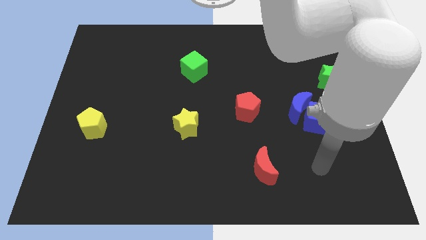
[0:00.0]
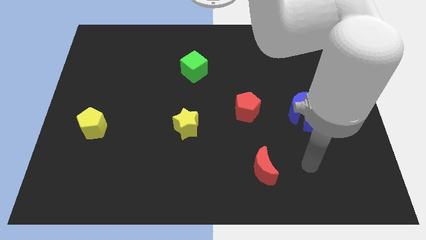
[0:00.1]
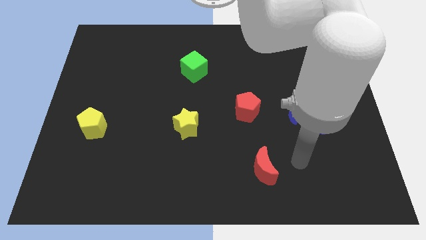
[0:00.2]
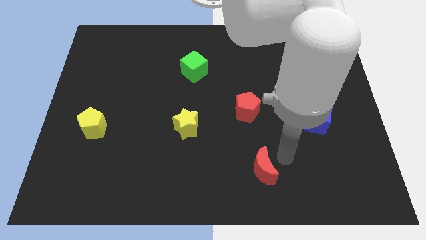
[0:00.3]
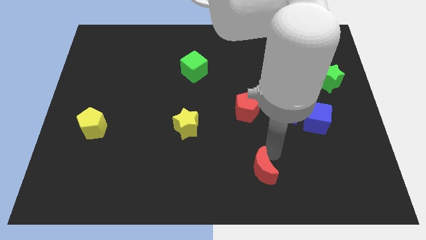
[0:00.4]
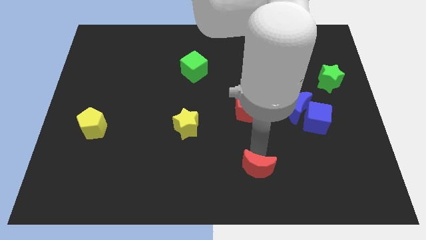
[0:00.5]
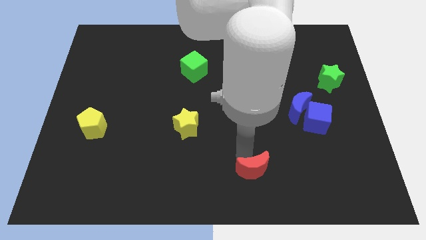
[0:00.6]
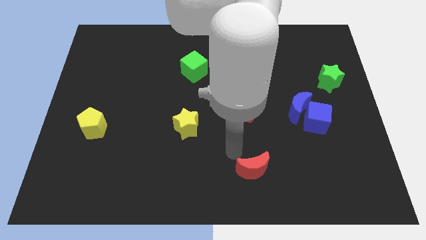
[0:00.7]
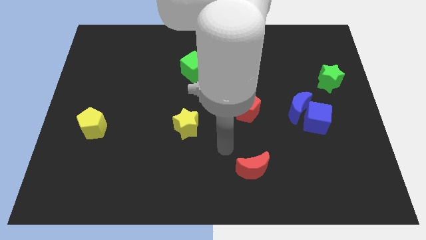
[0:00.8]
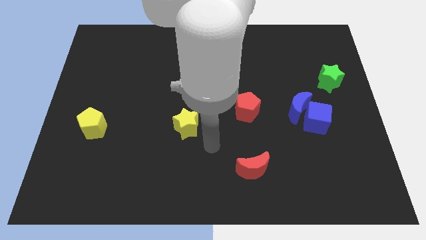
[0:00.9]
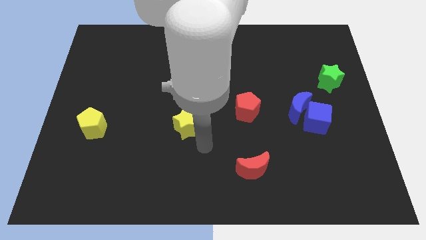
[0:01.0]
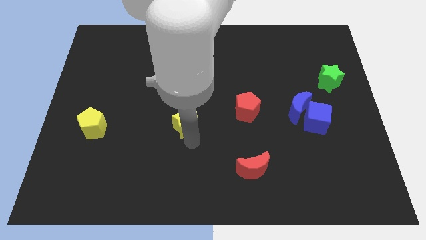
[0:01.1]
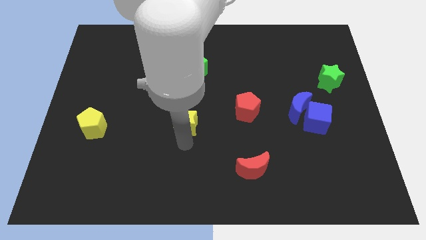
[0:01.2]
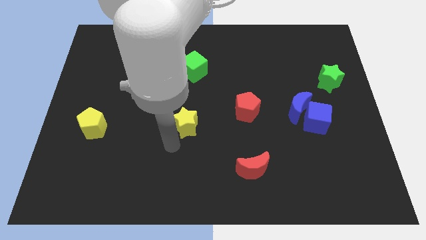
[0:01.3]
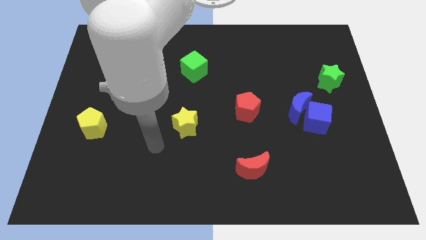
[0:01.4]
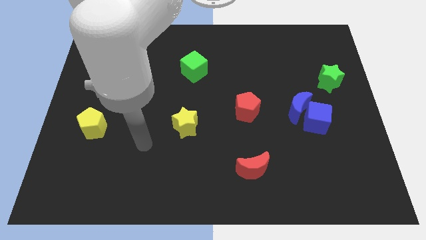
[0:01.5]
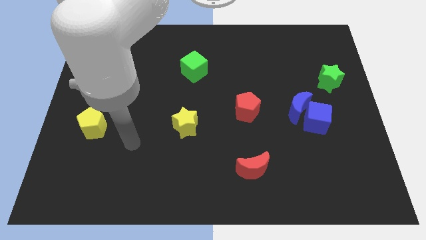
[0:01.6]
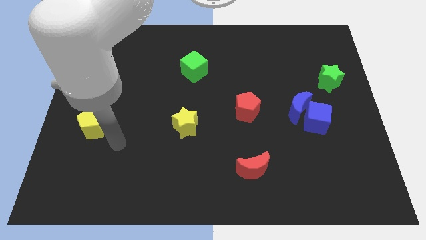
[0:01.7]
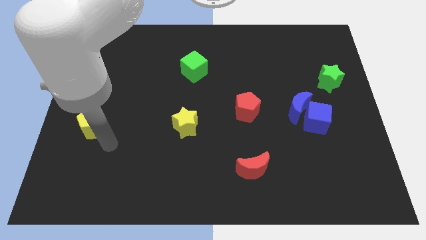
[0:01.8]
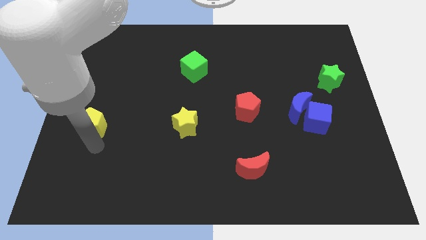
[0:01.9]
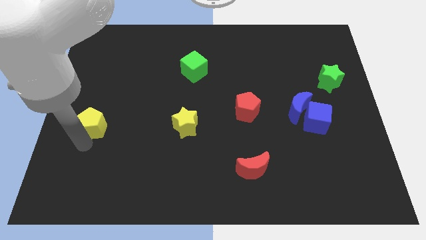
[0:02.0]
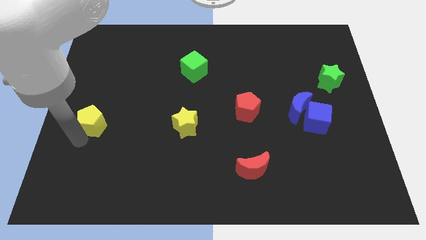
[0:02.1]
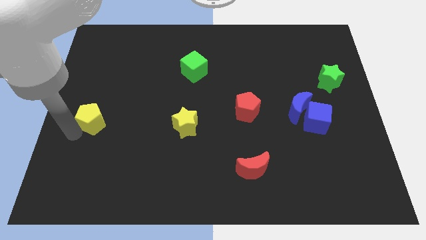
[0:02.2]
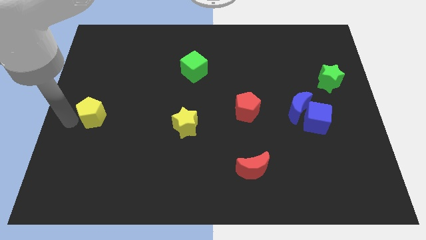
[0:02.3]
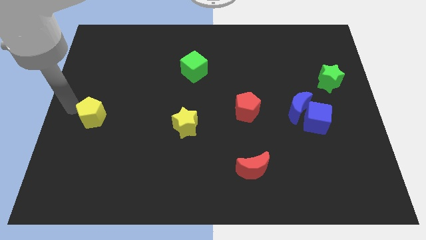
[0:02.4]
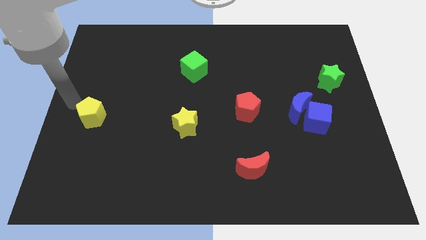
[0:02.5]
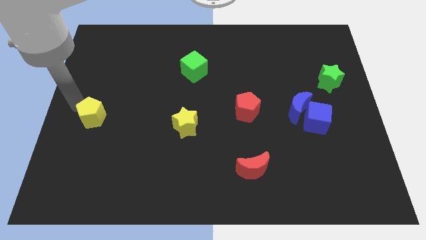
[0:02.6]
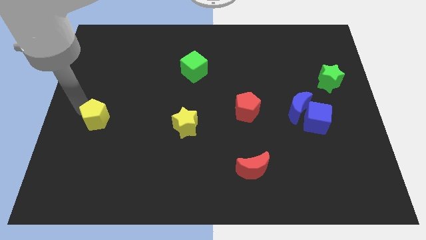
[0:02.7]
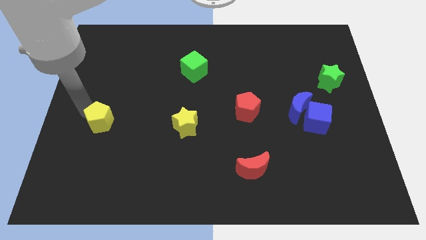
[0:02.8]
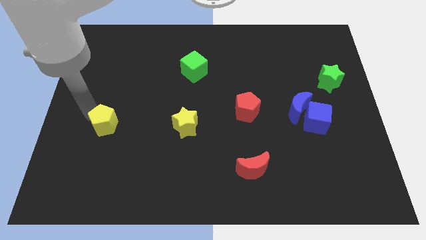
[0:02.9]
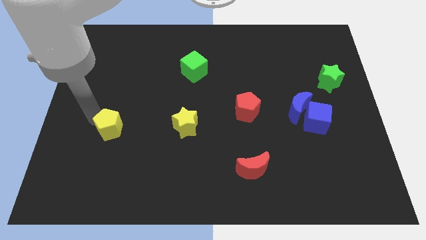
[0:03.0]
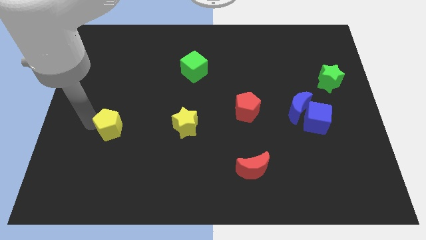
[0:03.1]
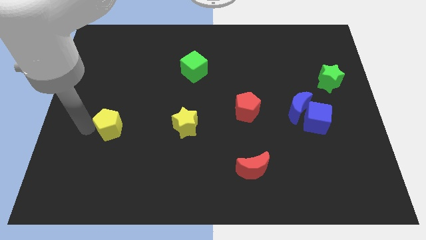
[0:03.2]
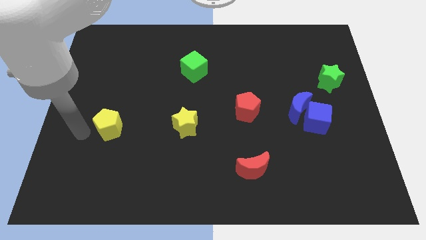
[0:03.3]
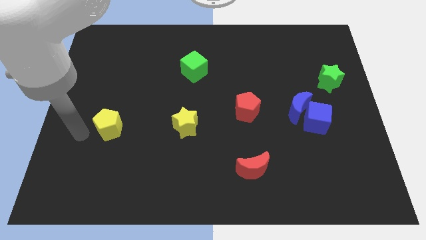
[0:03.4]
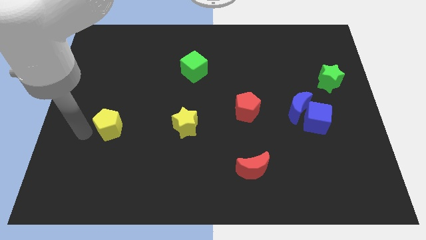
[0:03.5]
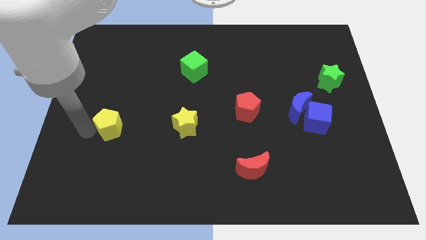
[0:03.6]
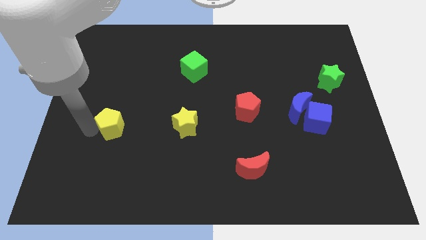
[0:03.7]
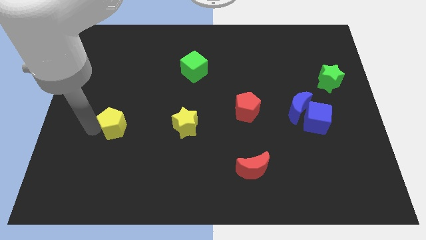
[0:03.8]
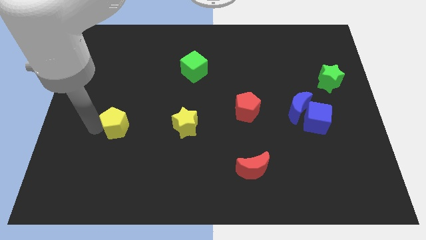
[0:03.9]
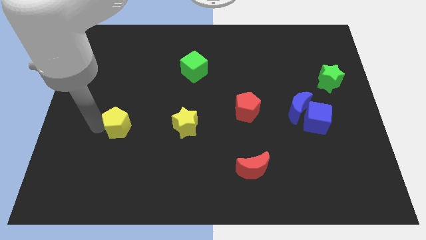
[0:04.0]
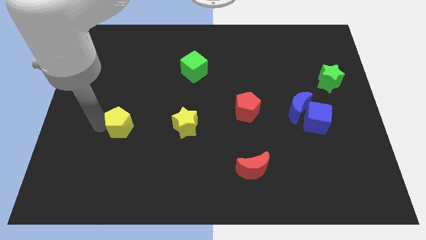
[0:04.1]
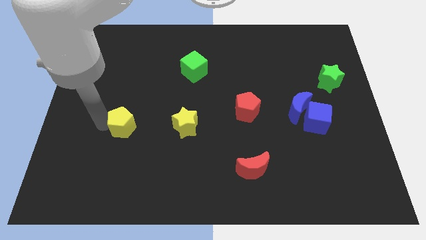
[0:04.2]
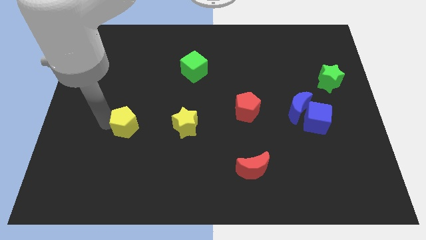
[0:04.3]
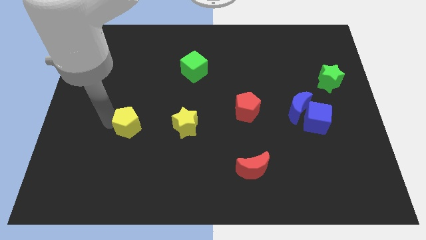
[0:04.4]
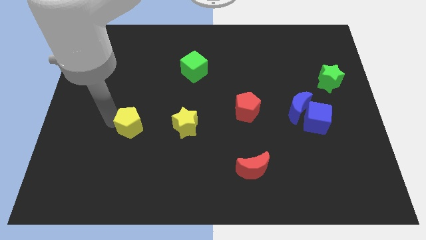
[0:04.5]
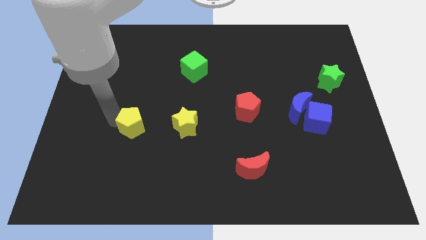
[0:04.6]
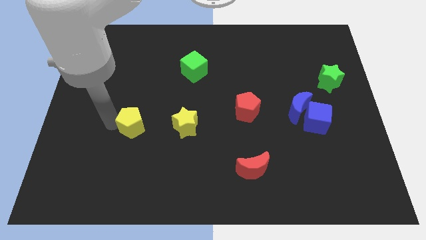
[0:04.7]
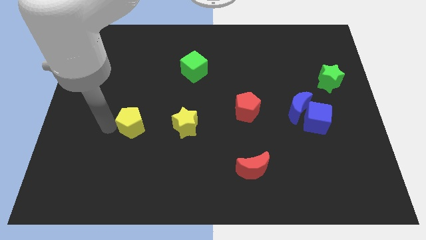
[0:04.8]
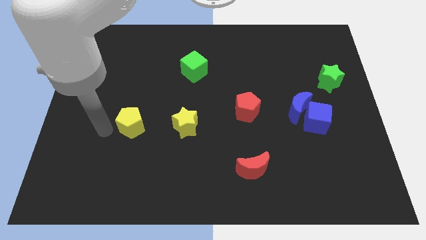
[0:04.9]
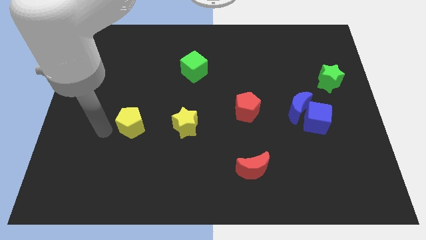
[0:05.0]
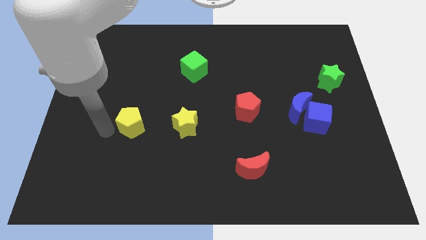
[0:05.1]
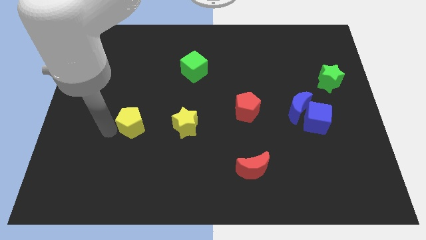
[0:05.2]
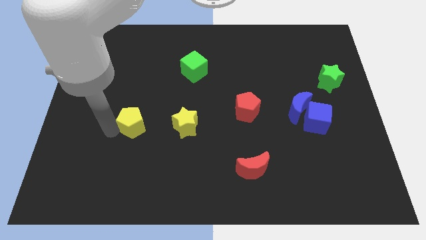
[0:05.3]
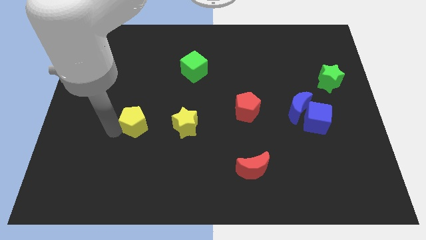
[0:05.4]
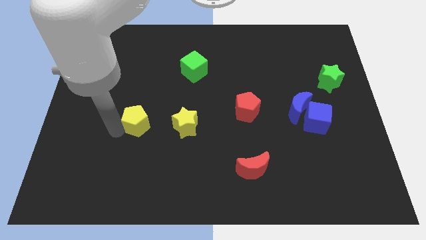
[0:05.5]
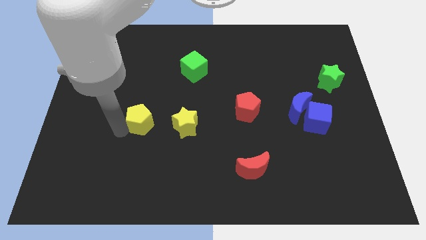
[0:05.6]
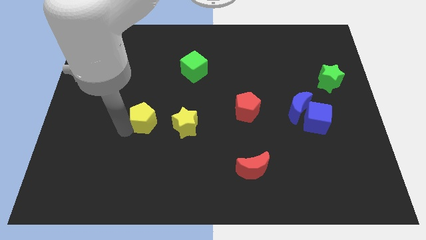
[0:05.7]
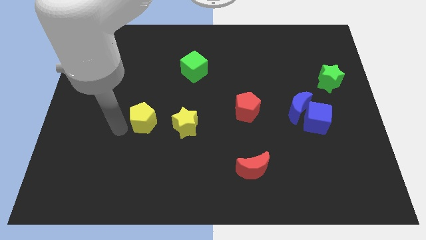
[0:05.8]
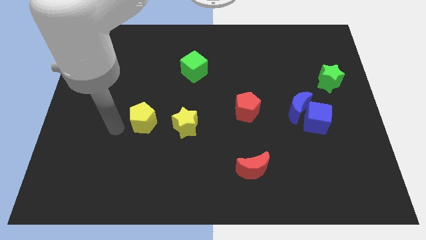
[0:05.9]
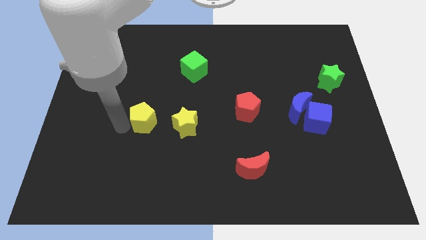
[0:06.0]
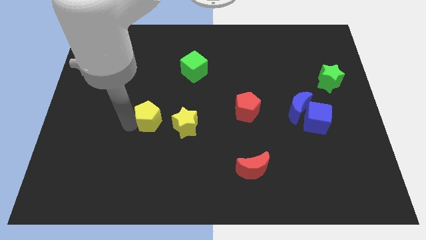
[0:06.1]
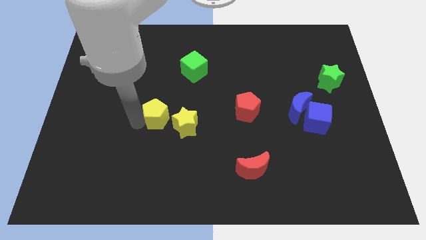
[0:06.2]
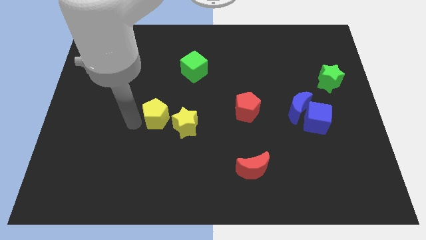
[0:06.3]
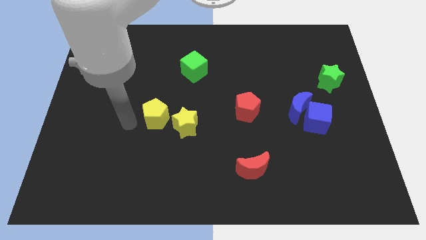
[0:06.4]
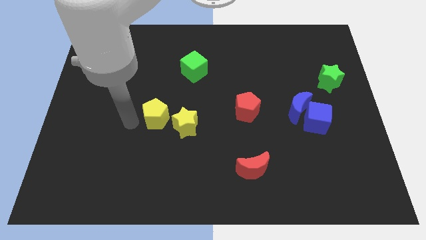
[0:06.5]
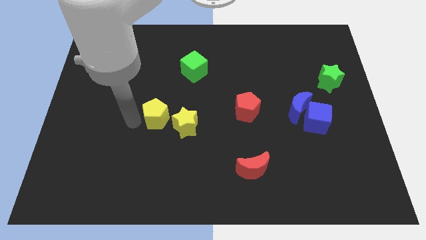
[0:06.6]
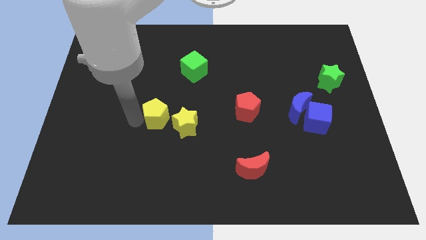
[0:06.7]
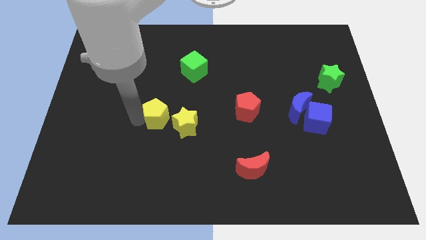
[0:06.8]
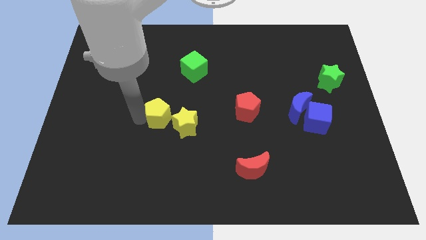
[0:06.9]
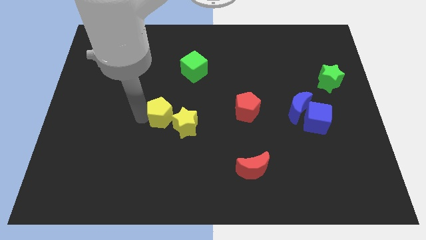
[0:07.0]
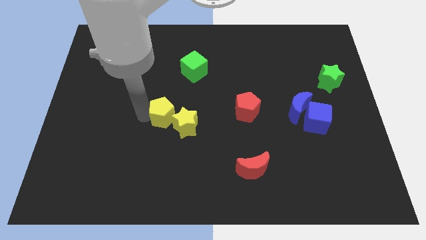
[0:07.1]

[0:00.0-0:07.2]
push the yellow pentagon to the middle
